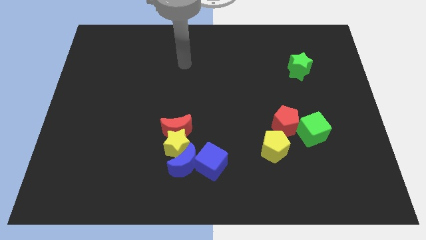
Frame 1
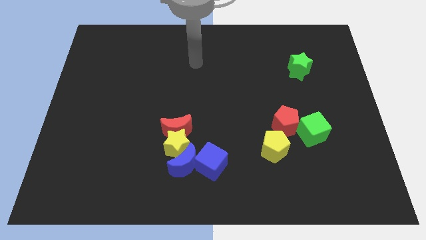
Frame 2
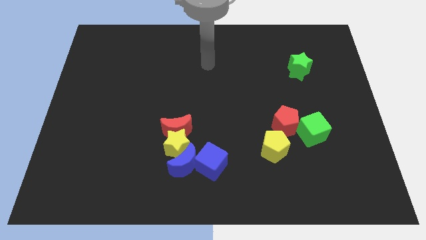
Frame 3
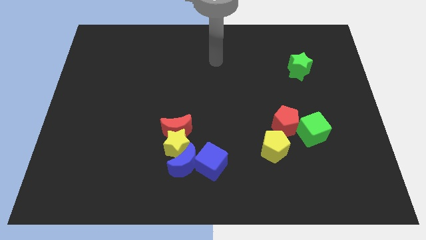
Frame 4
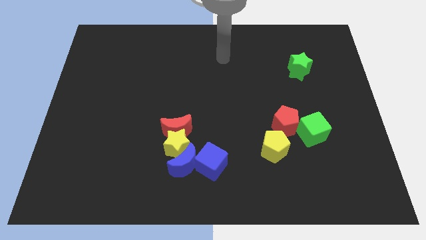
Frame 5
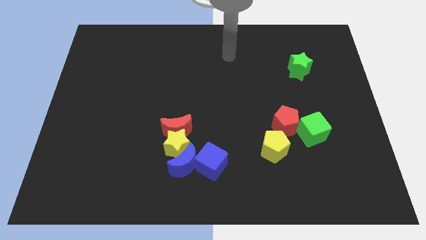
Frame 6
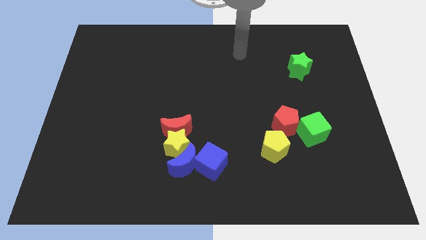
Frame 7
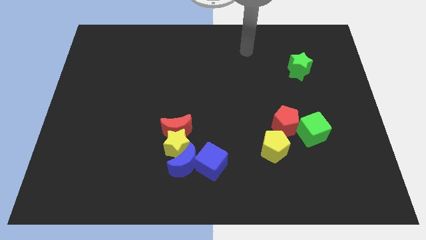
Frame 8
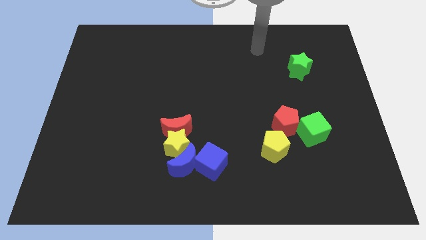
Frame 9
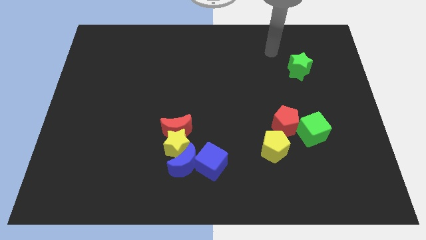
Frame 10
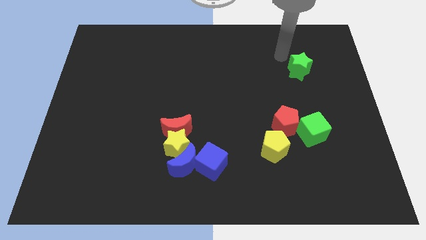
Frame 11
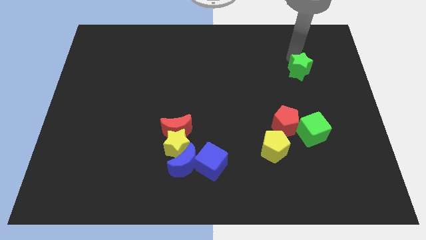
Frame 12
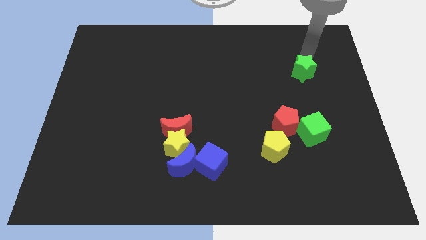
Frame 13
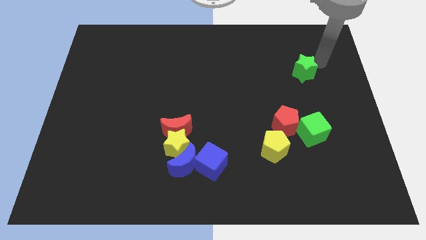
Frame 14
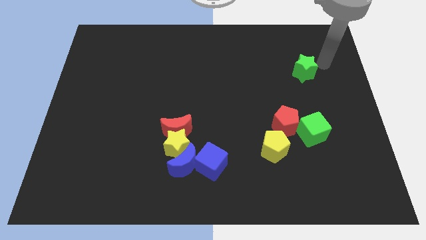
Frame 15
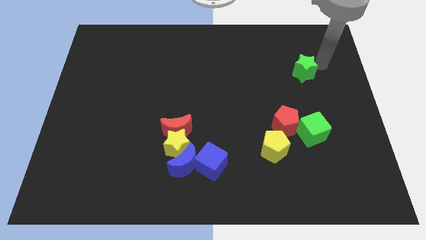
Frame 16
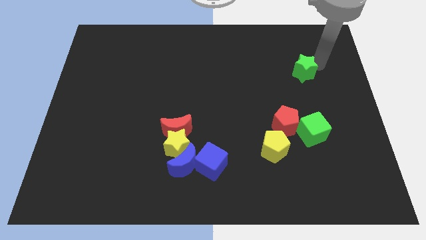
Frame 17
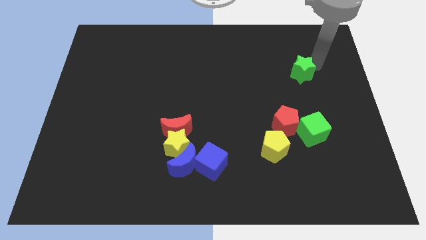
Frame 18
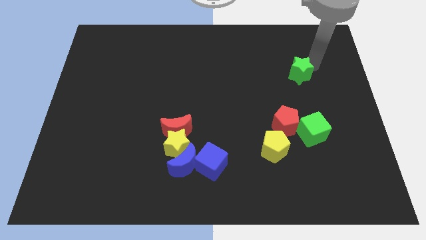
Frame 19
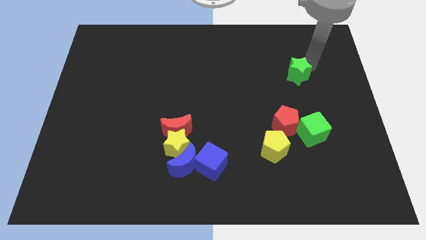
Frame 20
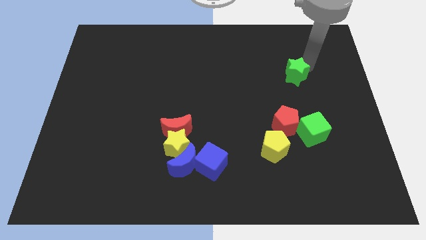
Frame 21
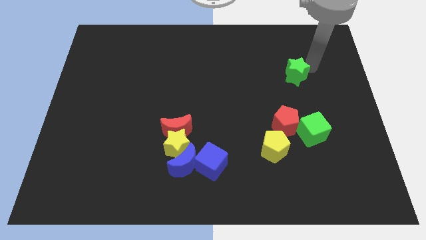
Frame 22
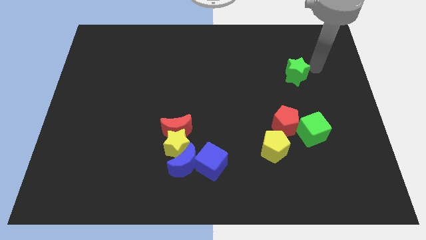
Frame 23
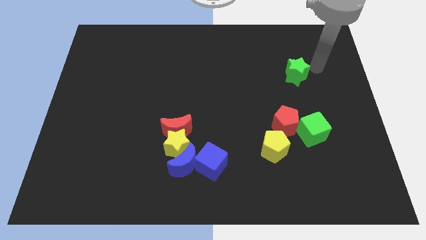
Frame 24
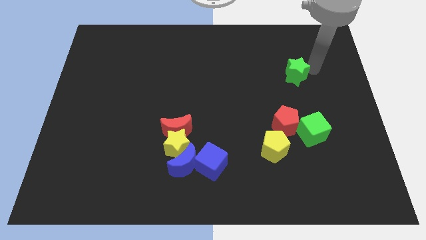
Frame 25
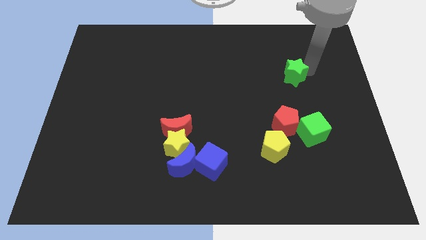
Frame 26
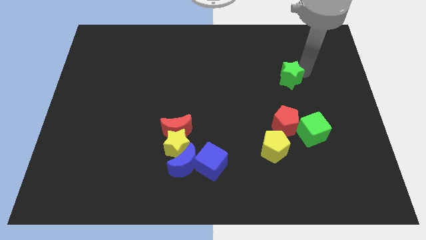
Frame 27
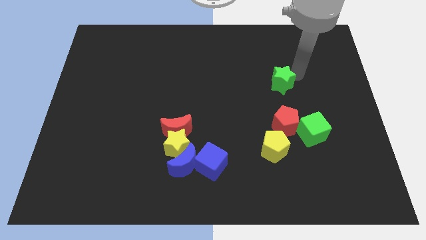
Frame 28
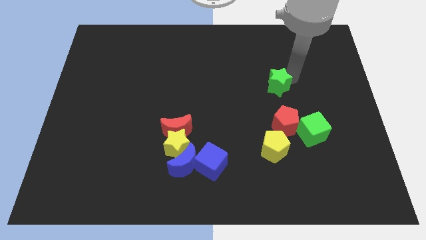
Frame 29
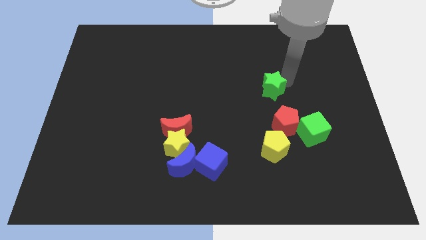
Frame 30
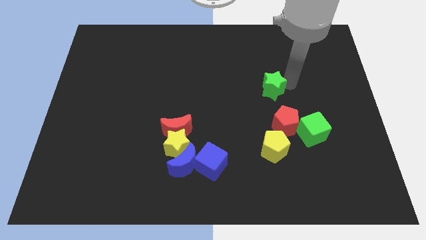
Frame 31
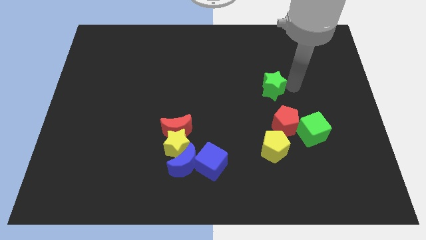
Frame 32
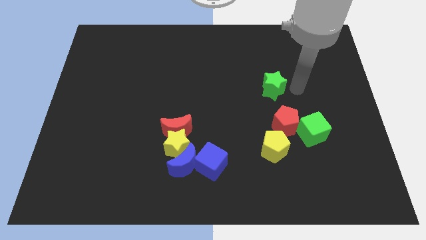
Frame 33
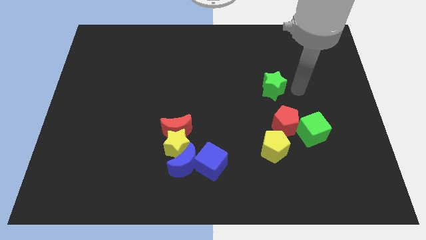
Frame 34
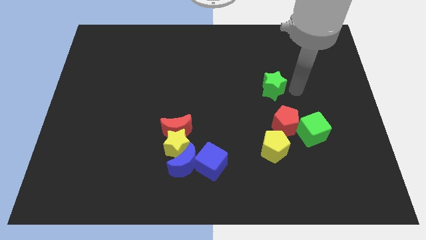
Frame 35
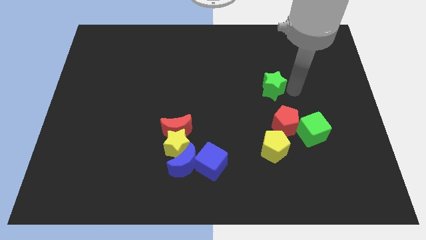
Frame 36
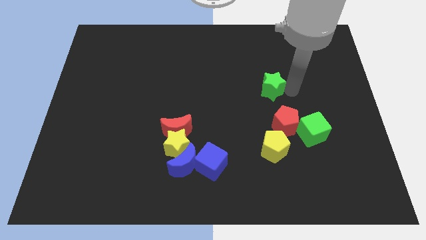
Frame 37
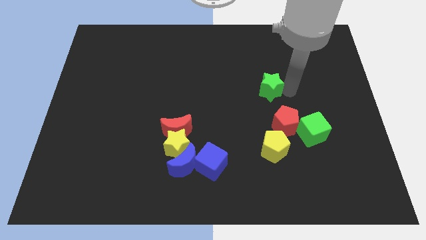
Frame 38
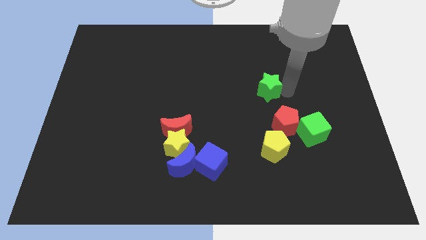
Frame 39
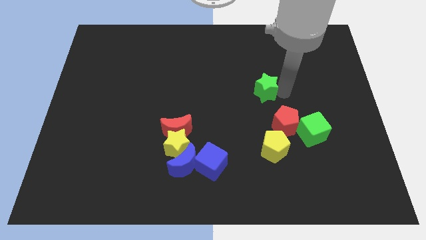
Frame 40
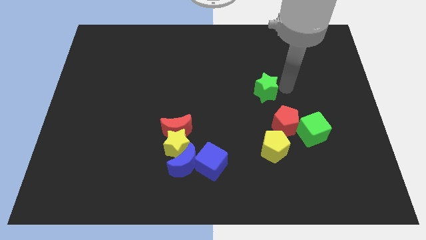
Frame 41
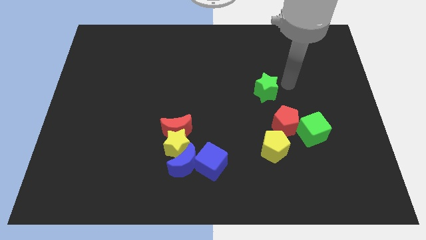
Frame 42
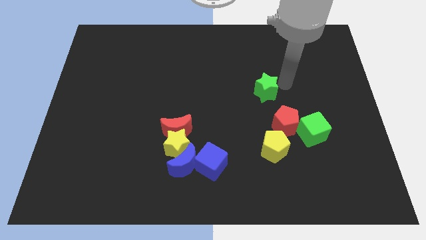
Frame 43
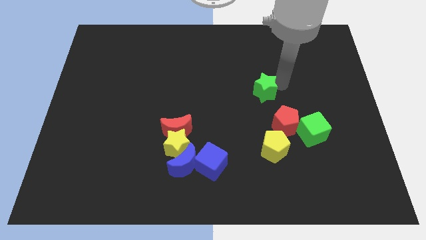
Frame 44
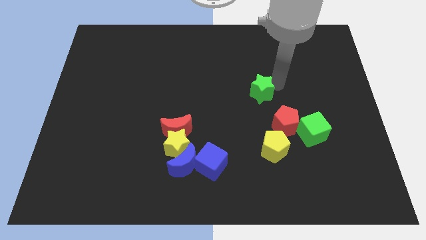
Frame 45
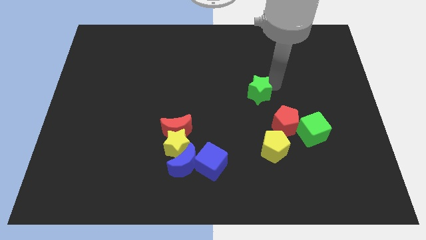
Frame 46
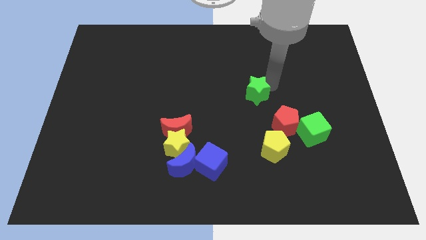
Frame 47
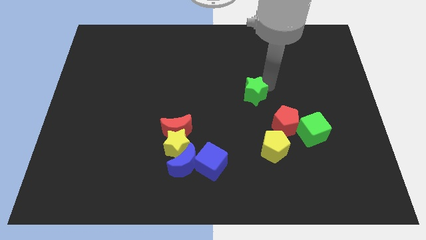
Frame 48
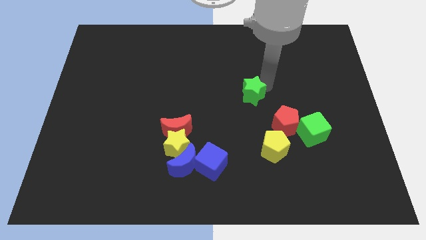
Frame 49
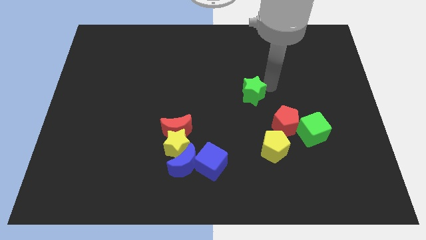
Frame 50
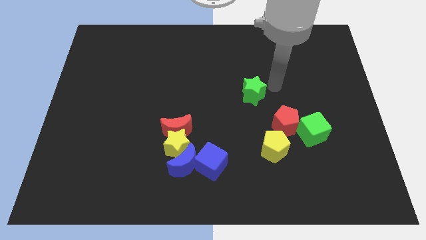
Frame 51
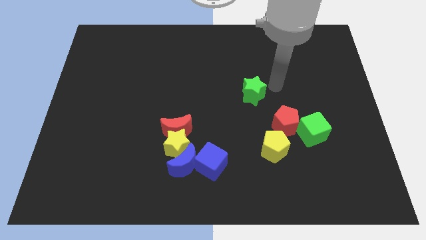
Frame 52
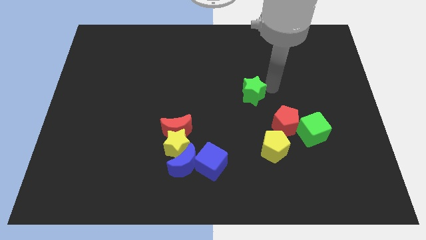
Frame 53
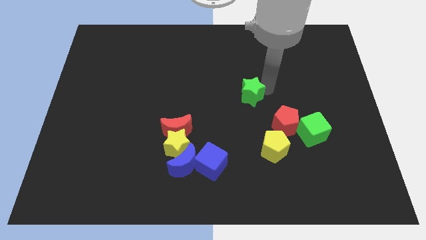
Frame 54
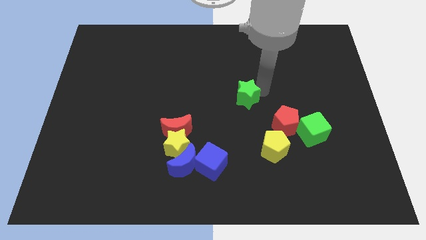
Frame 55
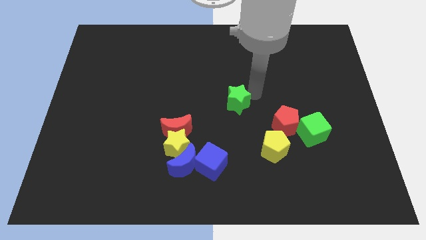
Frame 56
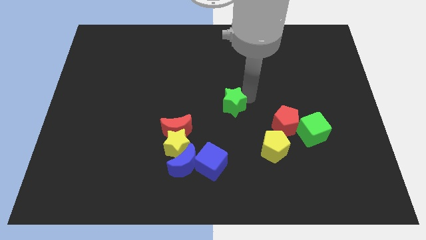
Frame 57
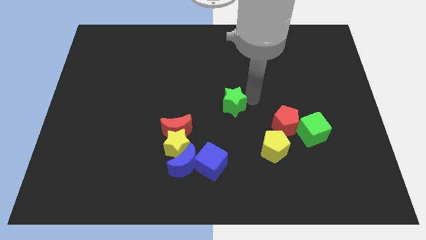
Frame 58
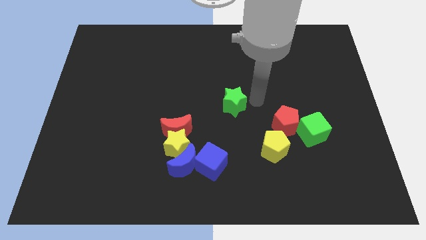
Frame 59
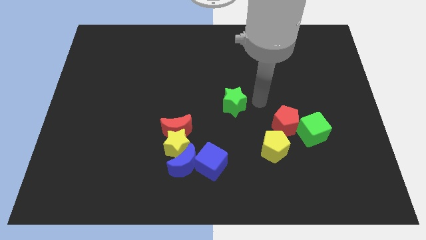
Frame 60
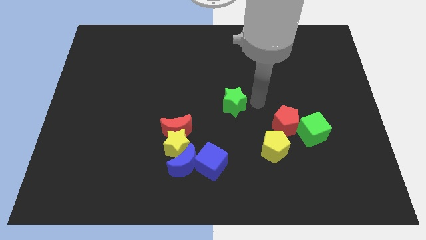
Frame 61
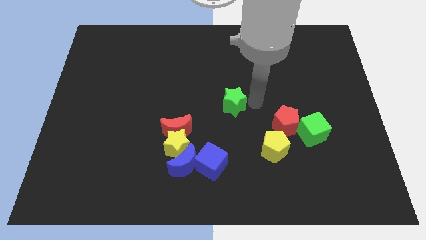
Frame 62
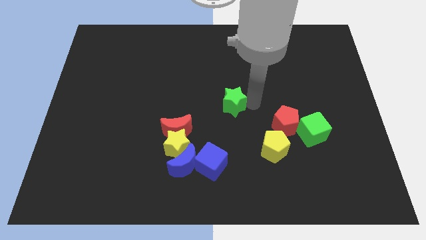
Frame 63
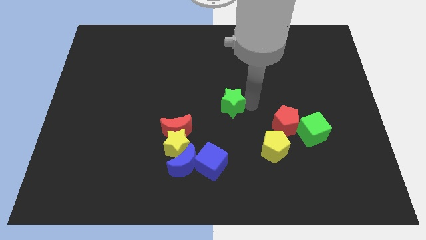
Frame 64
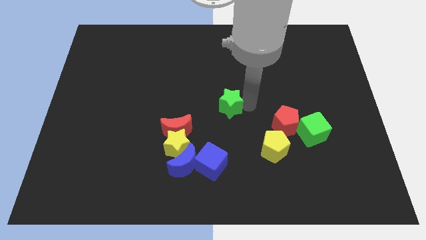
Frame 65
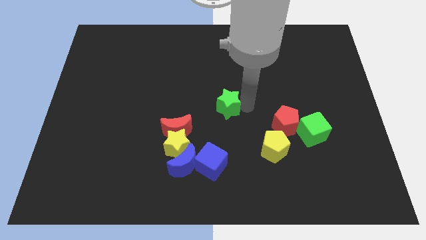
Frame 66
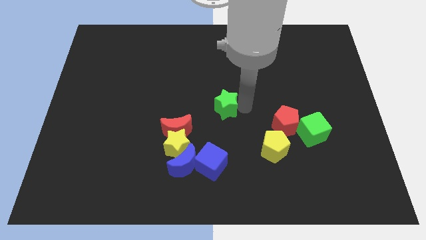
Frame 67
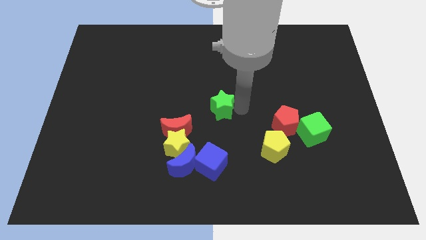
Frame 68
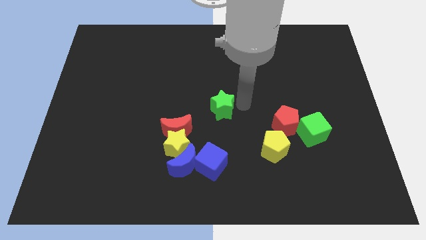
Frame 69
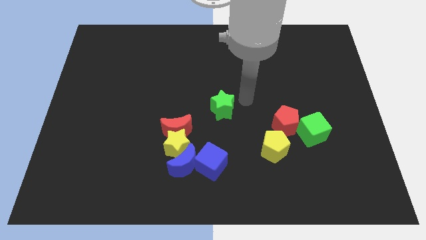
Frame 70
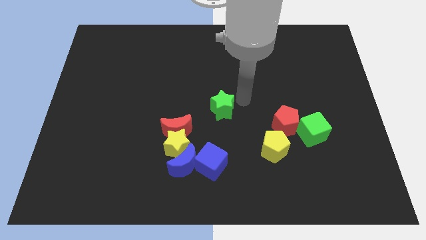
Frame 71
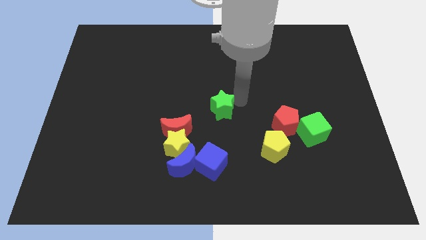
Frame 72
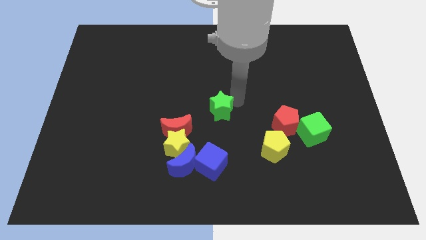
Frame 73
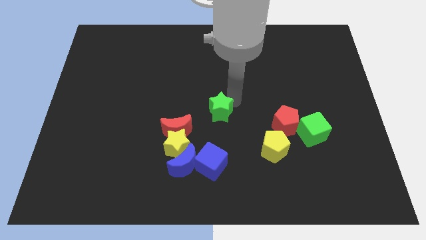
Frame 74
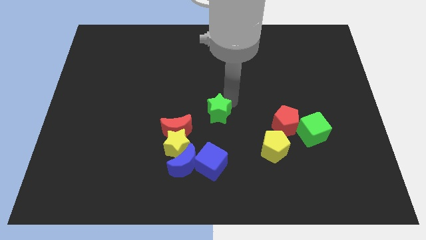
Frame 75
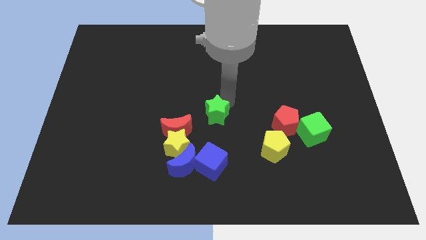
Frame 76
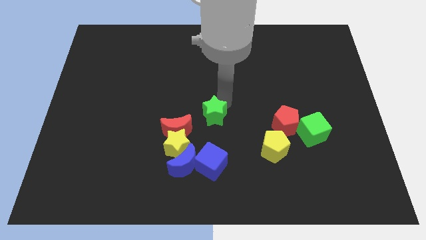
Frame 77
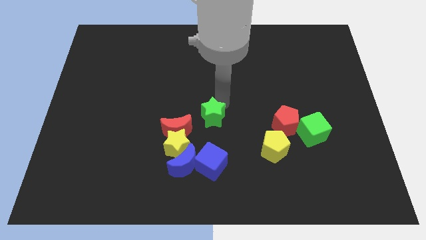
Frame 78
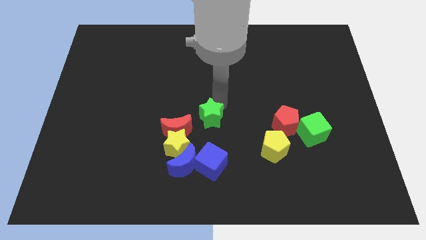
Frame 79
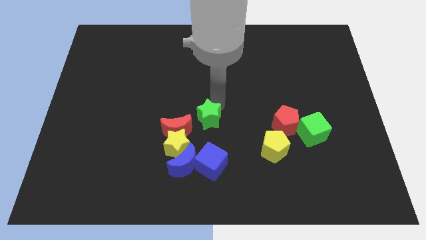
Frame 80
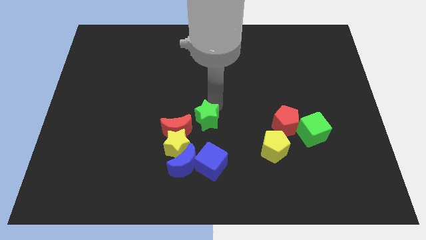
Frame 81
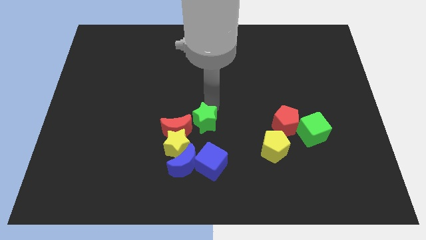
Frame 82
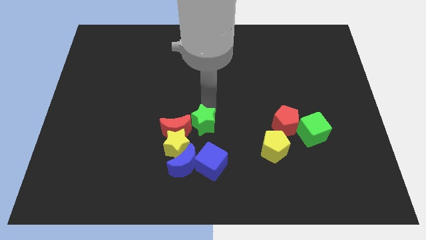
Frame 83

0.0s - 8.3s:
slide the green star to the red moon
